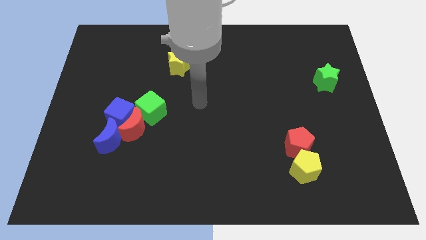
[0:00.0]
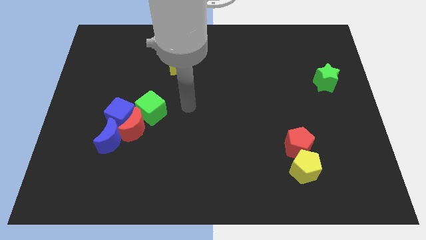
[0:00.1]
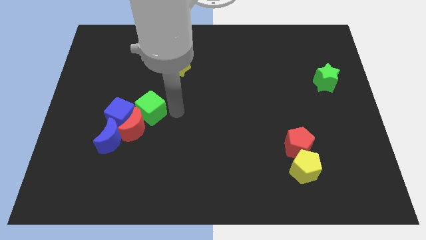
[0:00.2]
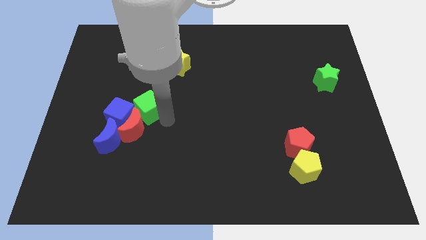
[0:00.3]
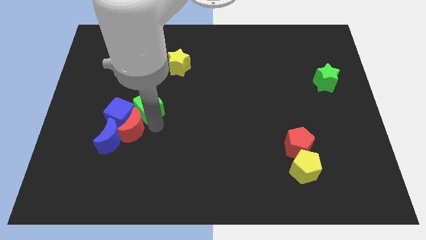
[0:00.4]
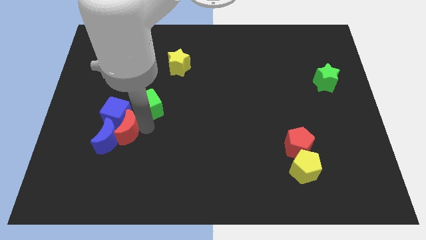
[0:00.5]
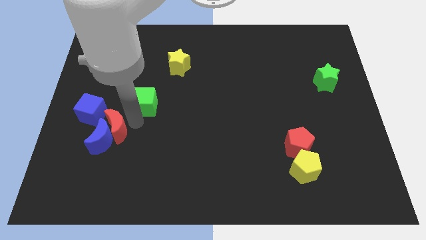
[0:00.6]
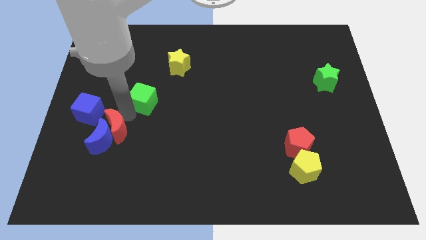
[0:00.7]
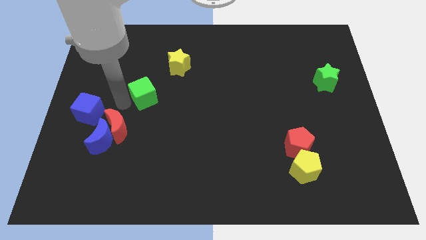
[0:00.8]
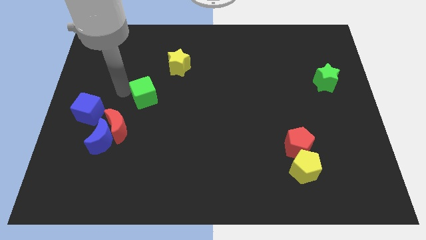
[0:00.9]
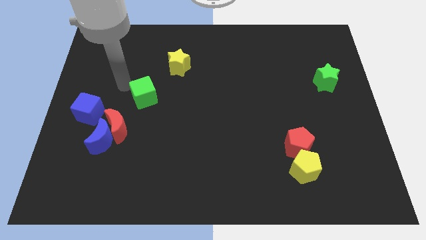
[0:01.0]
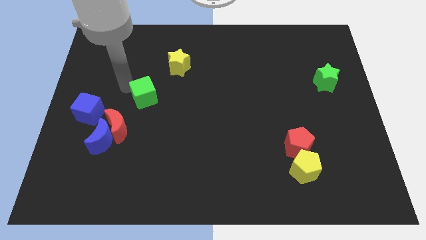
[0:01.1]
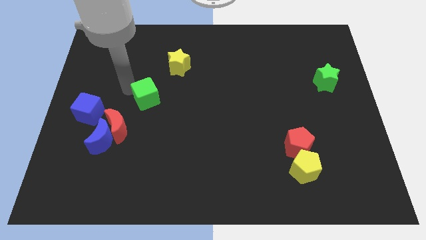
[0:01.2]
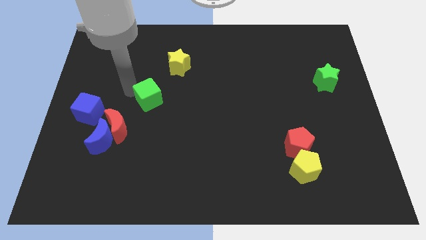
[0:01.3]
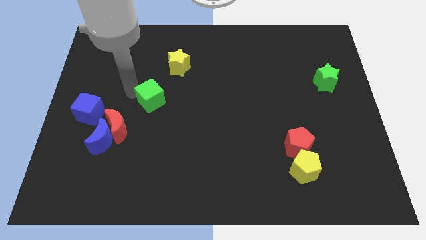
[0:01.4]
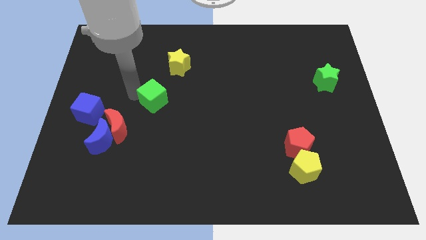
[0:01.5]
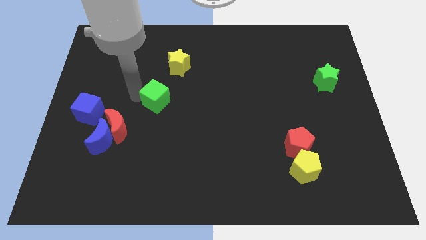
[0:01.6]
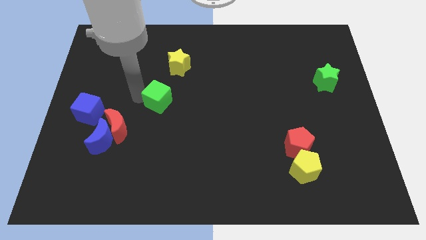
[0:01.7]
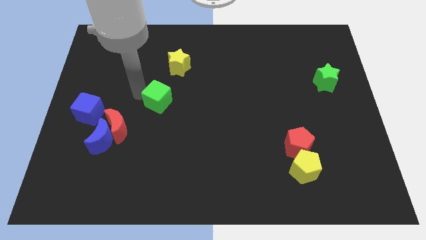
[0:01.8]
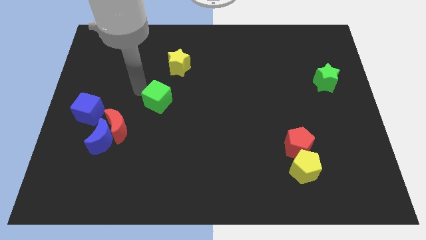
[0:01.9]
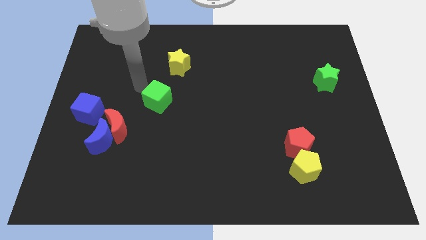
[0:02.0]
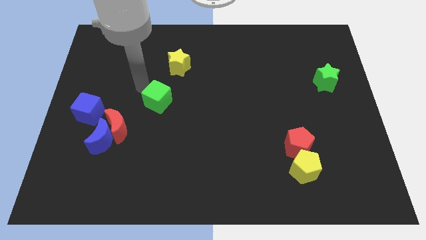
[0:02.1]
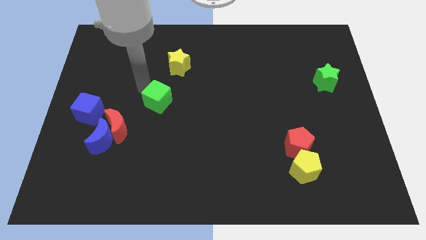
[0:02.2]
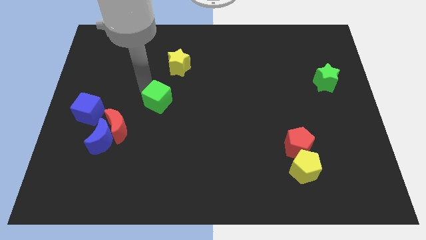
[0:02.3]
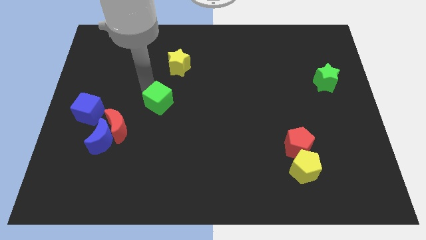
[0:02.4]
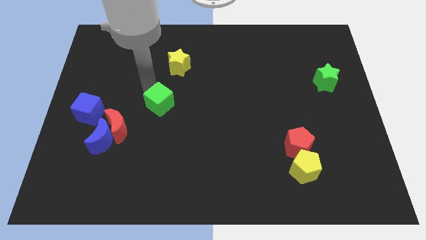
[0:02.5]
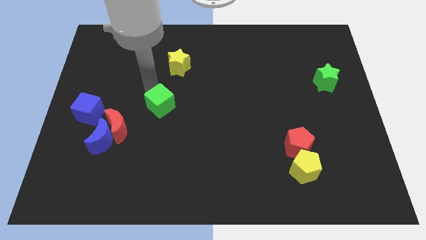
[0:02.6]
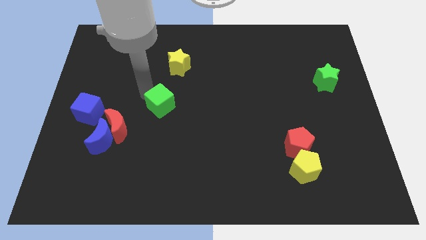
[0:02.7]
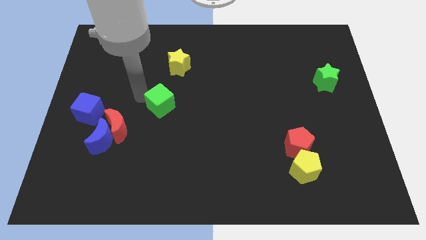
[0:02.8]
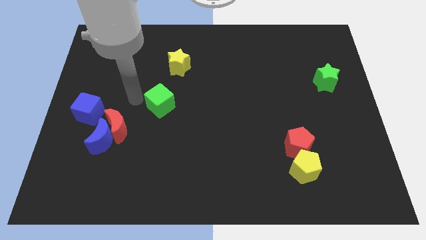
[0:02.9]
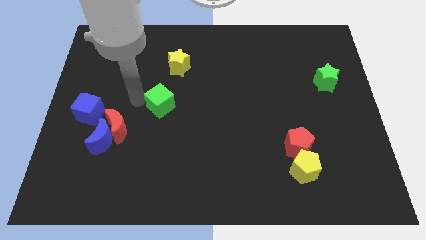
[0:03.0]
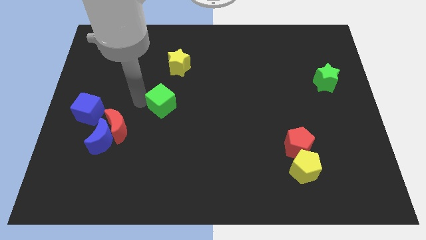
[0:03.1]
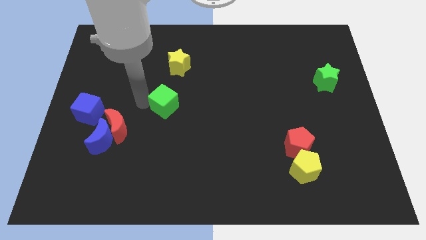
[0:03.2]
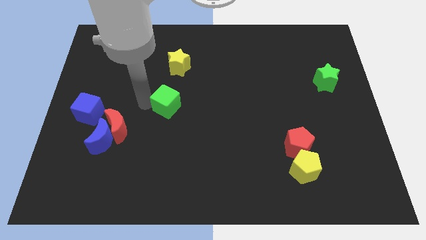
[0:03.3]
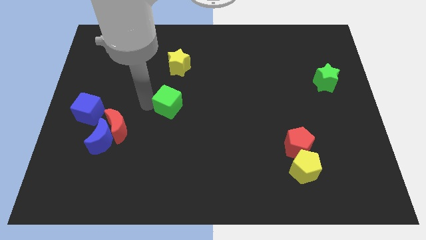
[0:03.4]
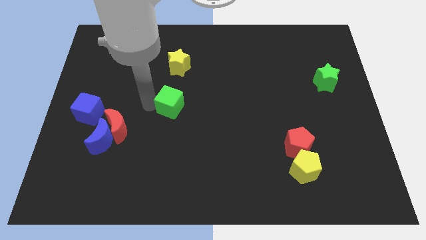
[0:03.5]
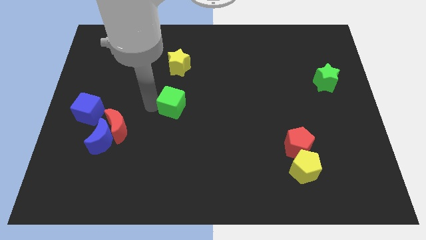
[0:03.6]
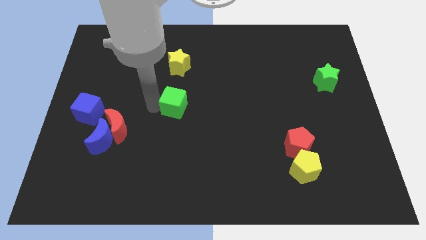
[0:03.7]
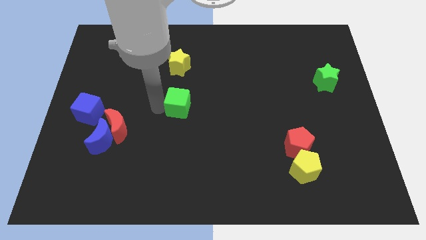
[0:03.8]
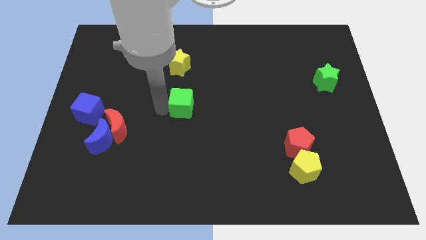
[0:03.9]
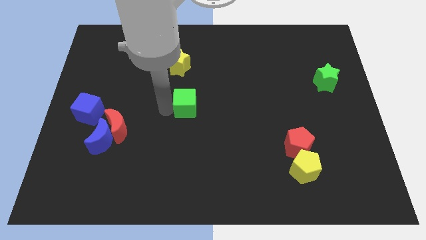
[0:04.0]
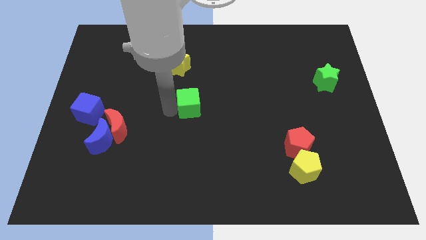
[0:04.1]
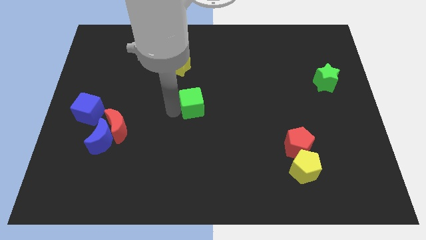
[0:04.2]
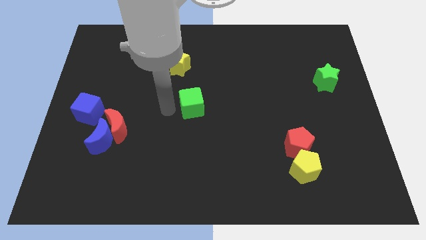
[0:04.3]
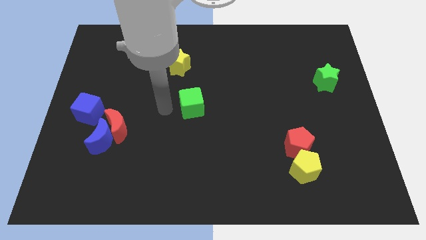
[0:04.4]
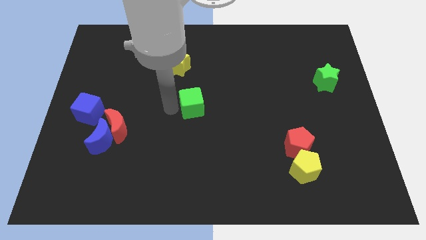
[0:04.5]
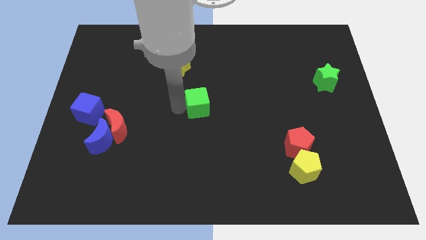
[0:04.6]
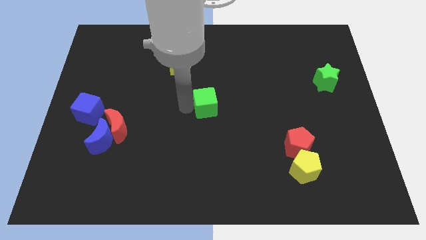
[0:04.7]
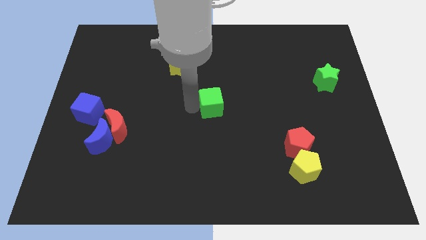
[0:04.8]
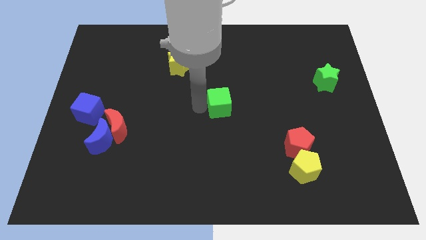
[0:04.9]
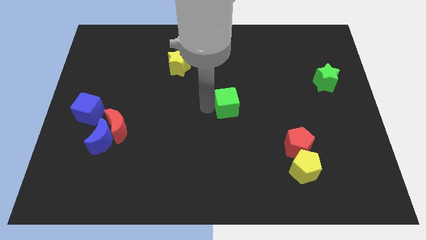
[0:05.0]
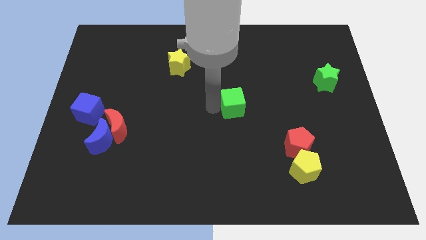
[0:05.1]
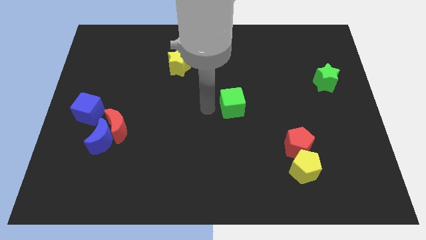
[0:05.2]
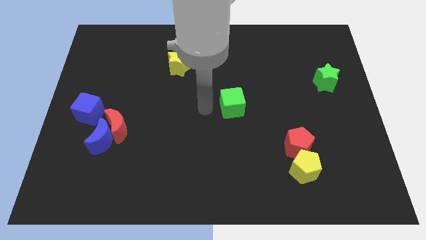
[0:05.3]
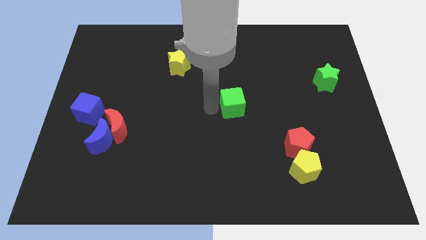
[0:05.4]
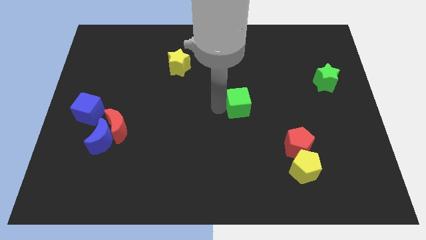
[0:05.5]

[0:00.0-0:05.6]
slide the green cube right

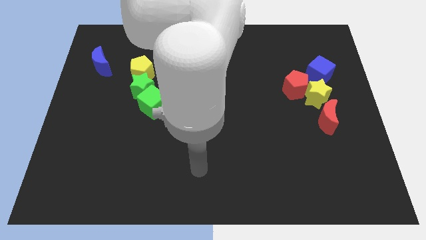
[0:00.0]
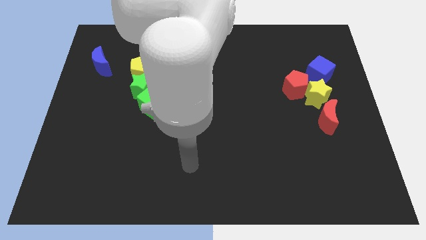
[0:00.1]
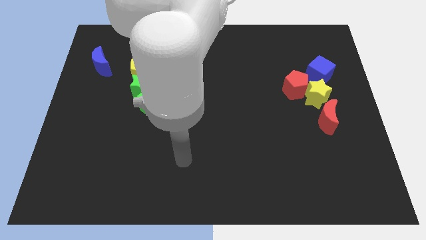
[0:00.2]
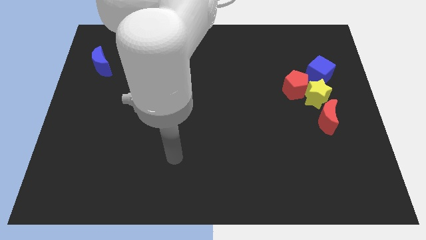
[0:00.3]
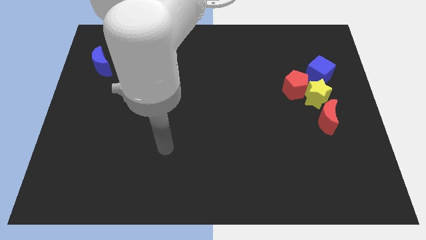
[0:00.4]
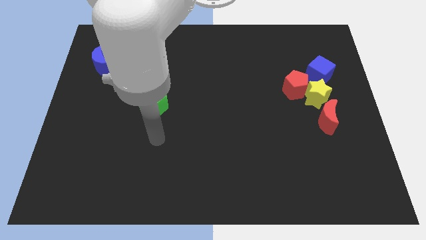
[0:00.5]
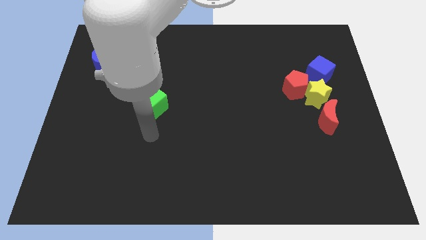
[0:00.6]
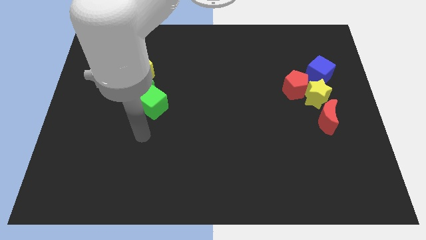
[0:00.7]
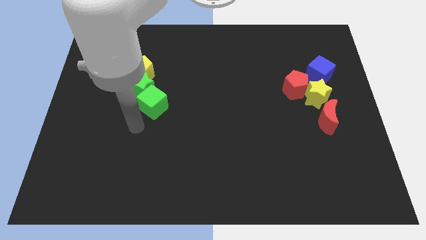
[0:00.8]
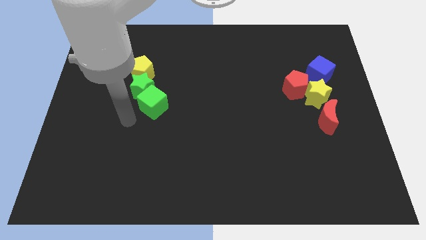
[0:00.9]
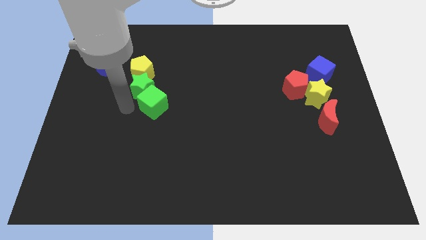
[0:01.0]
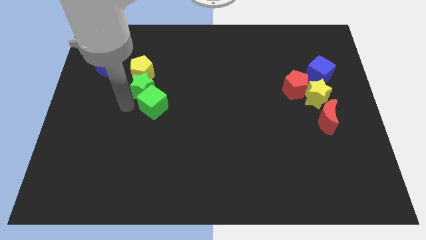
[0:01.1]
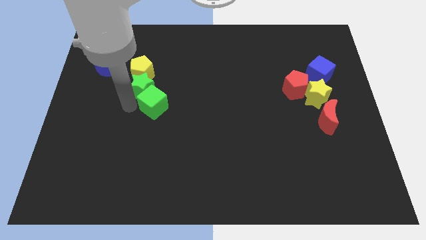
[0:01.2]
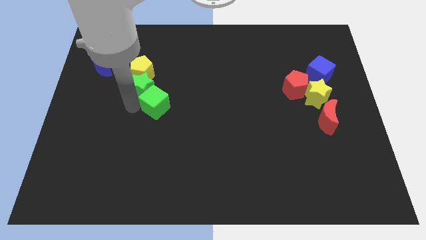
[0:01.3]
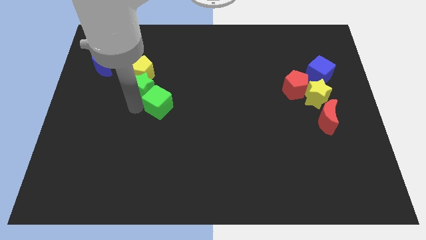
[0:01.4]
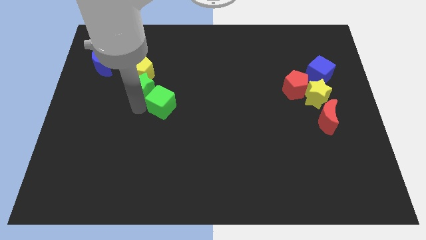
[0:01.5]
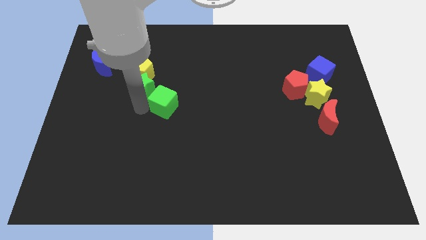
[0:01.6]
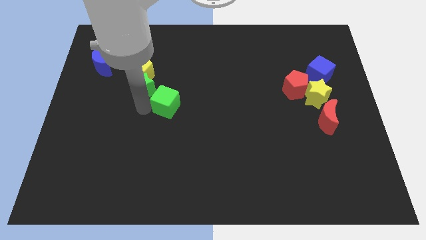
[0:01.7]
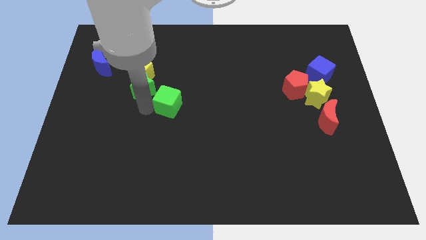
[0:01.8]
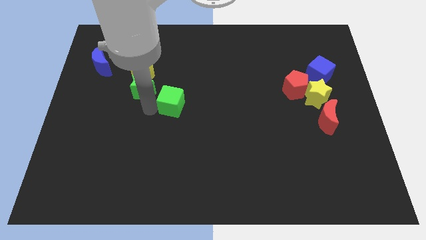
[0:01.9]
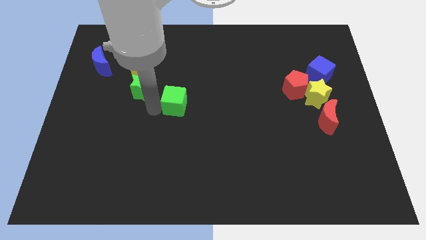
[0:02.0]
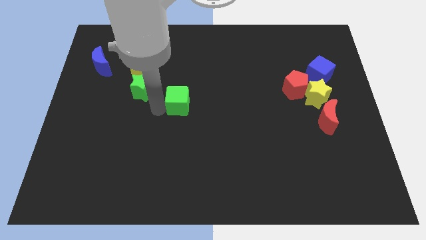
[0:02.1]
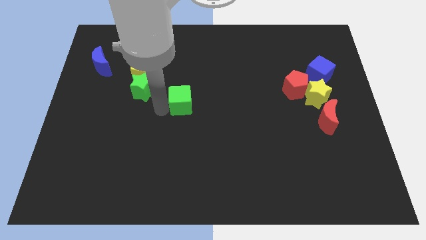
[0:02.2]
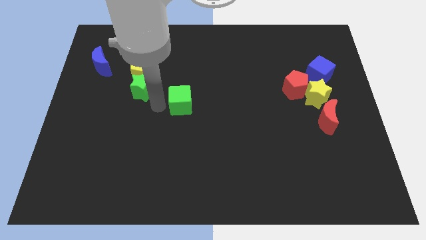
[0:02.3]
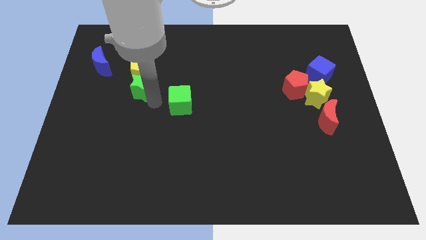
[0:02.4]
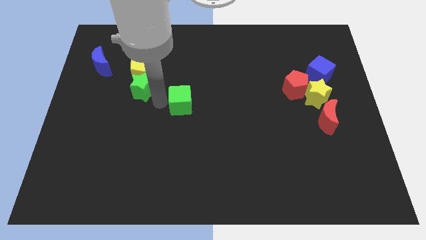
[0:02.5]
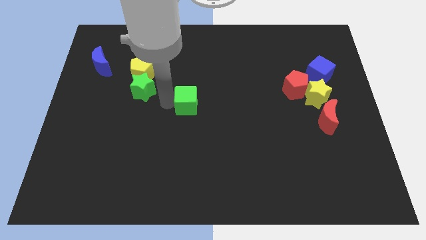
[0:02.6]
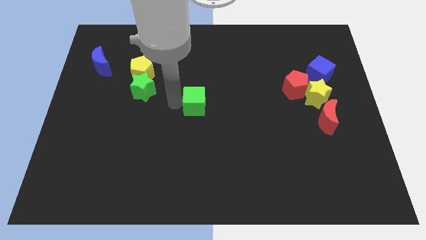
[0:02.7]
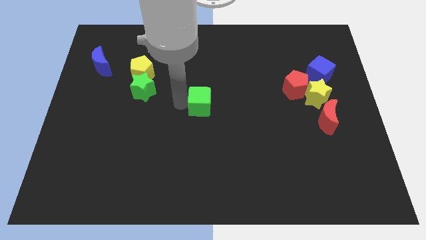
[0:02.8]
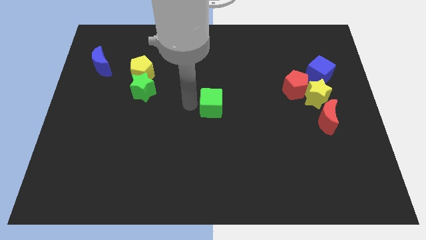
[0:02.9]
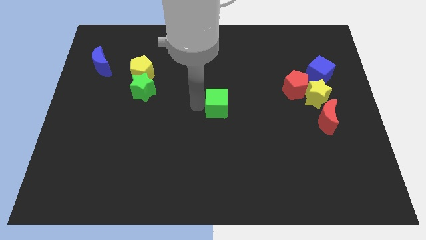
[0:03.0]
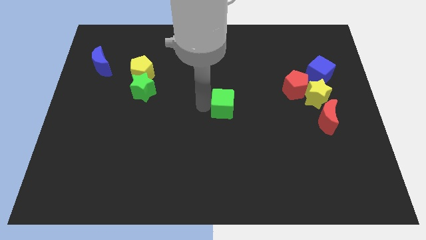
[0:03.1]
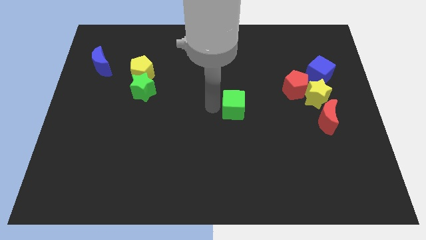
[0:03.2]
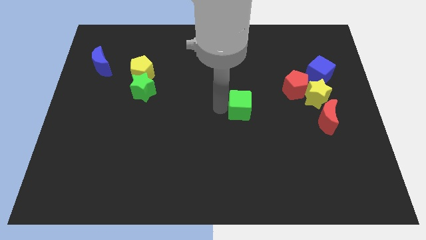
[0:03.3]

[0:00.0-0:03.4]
move the green cube to the right
